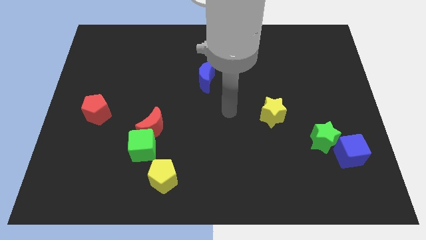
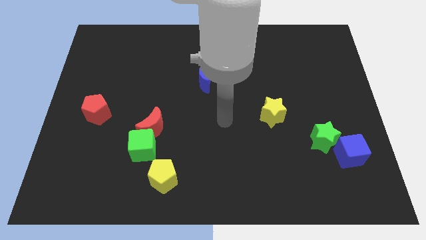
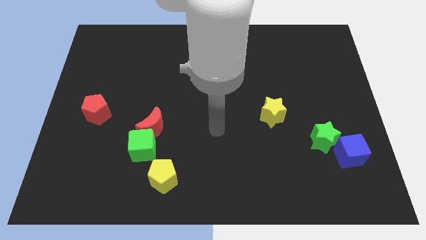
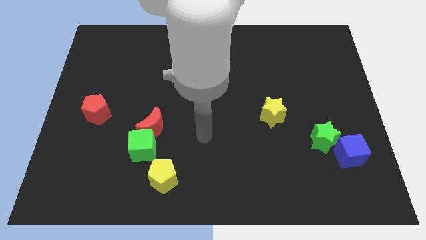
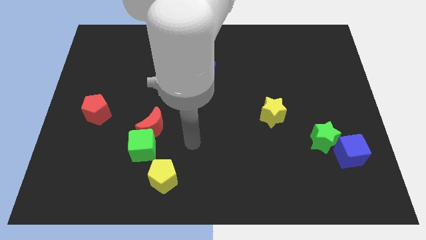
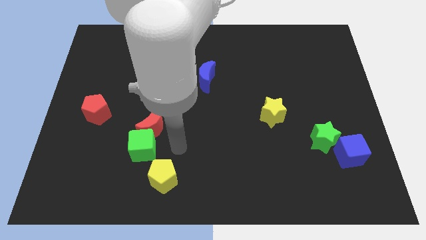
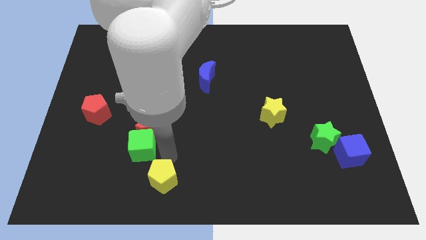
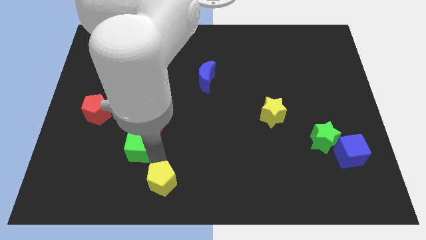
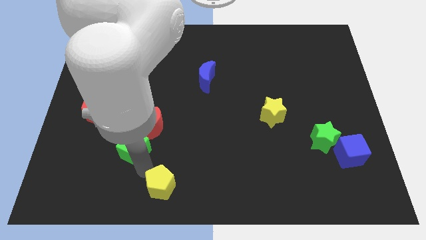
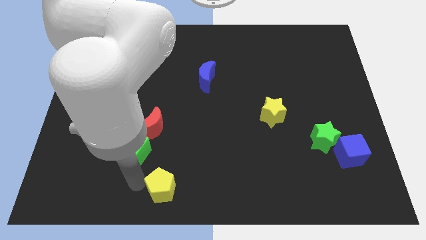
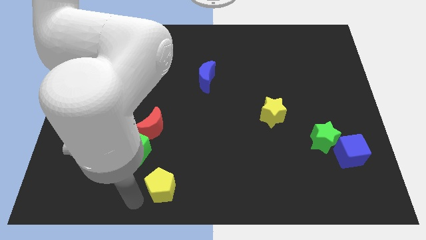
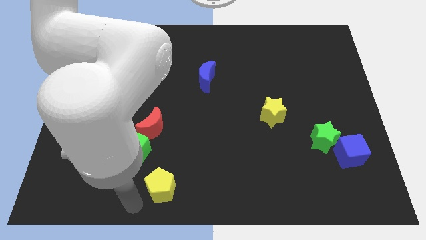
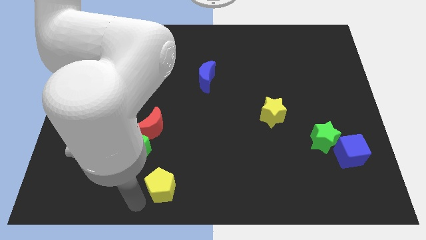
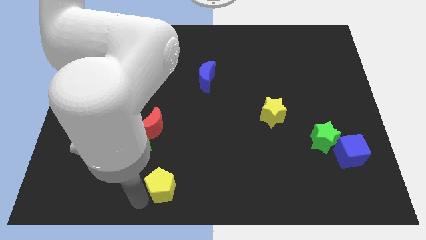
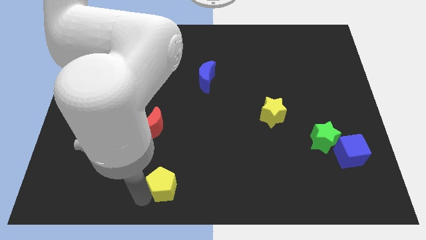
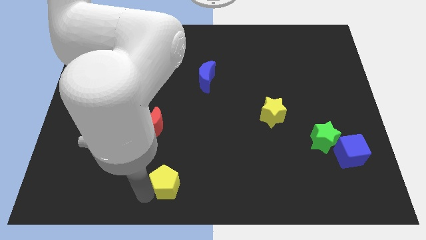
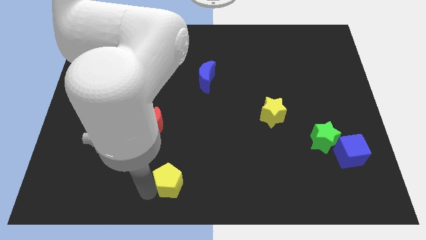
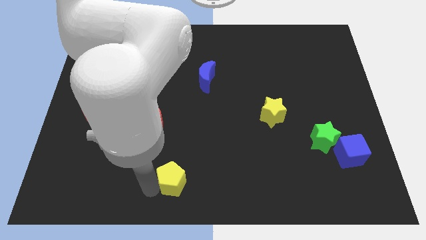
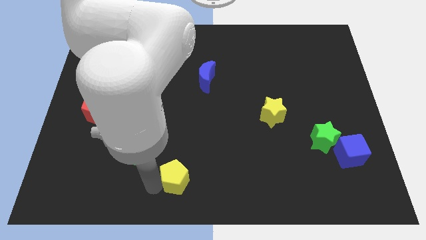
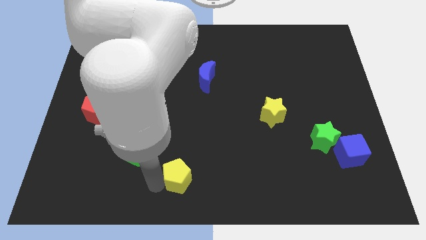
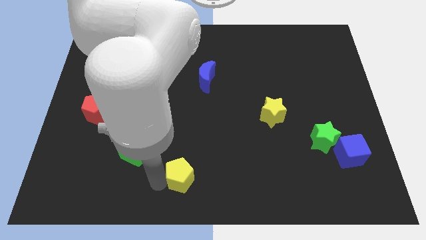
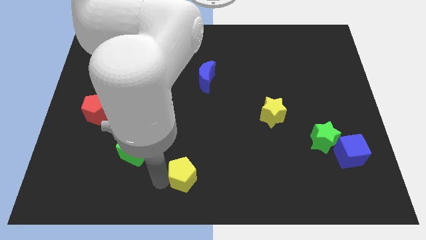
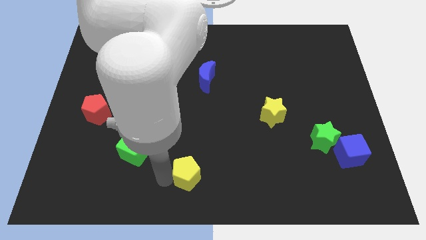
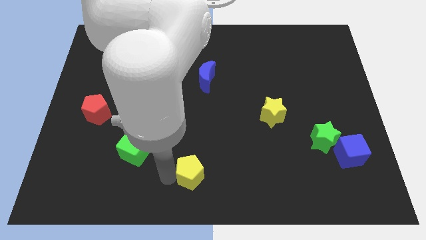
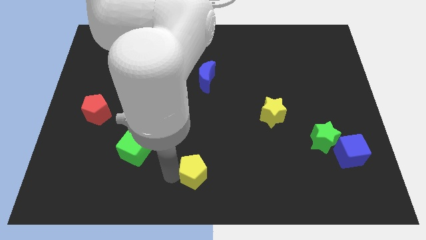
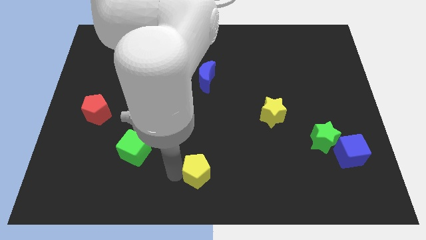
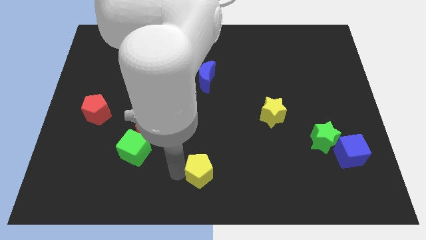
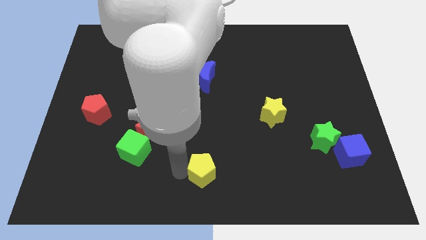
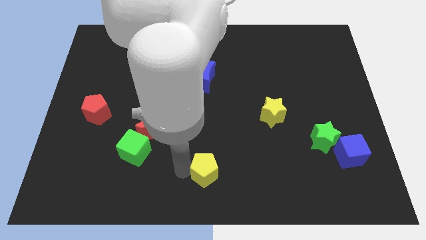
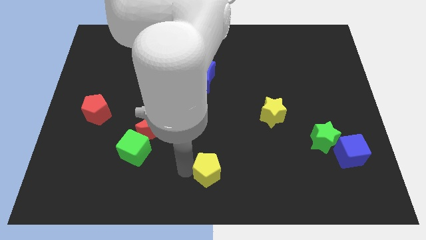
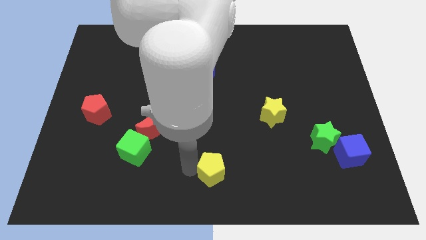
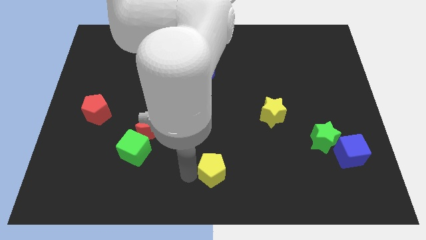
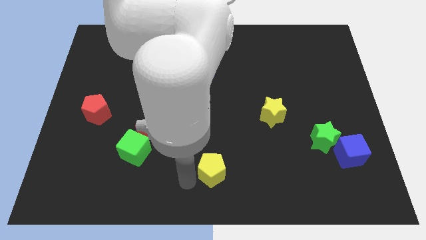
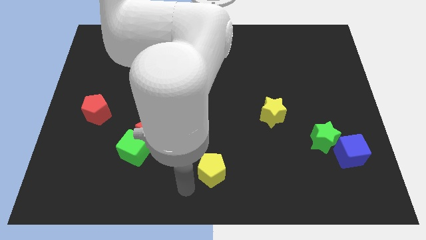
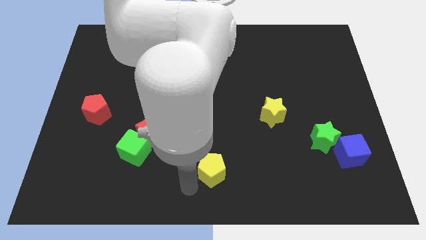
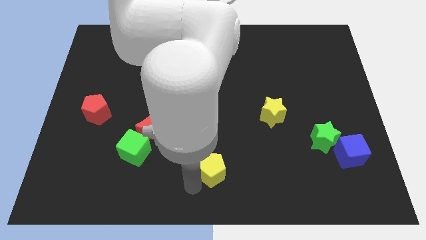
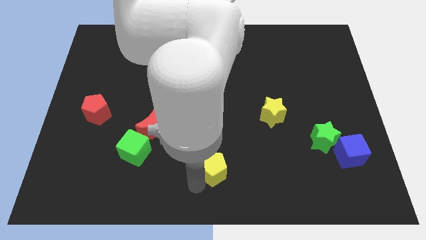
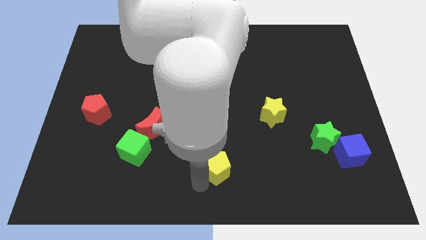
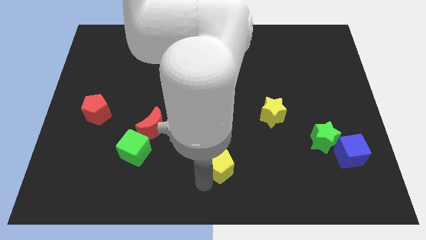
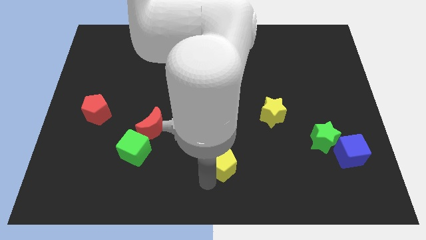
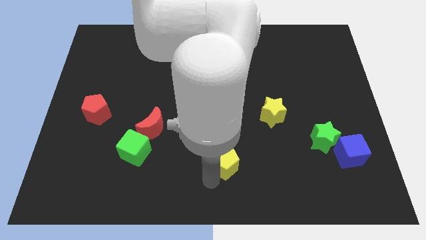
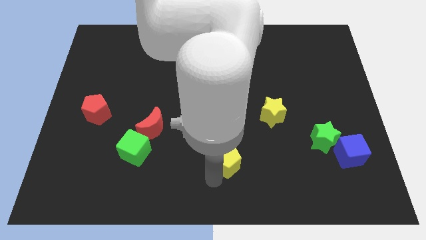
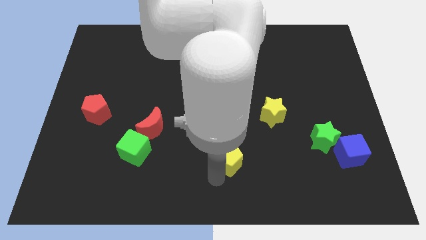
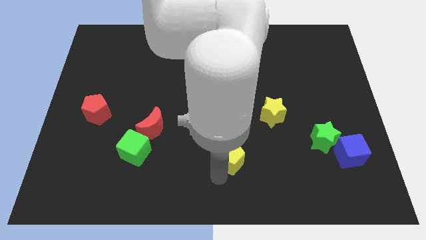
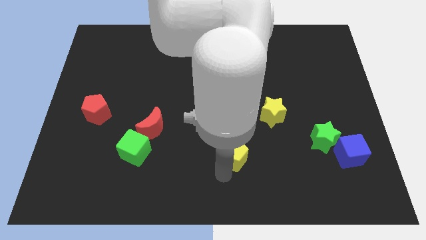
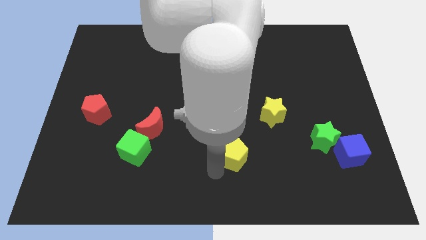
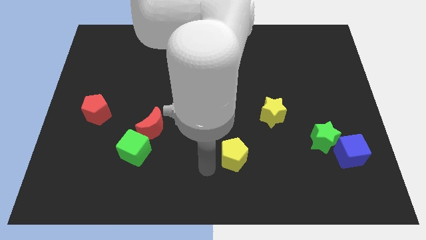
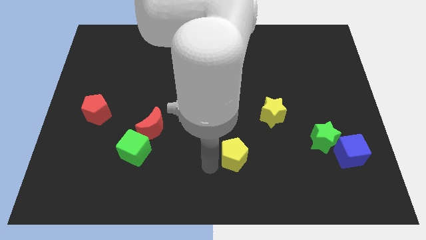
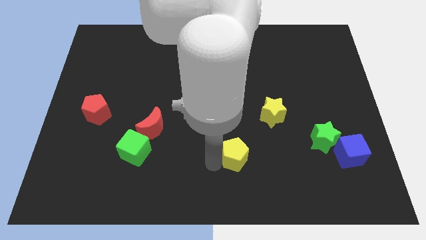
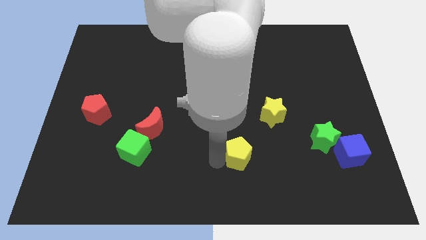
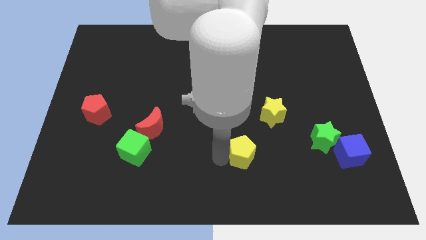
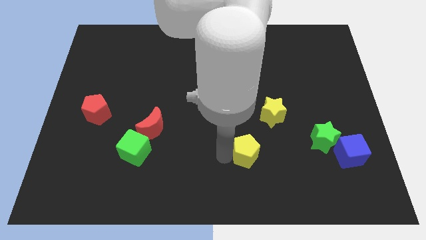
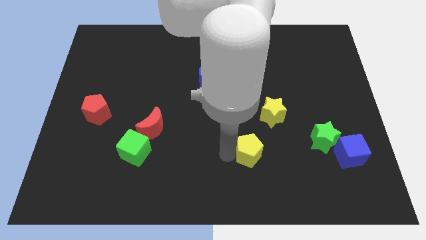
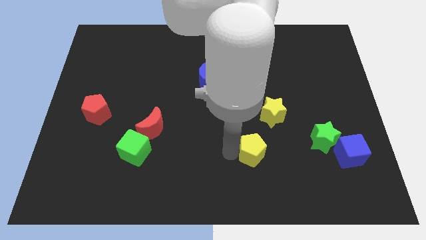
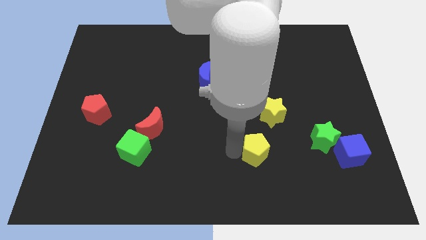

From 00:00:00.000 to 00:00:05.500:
slide the yellow pentagon just left of the green star

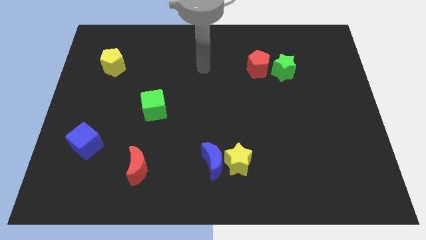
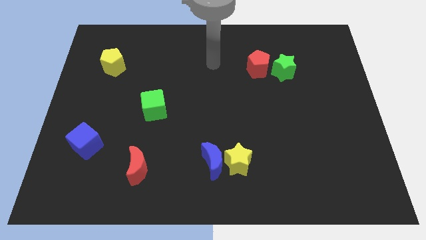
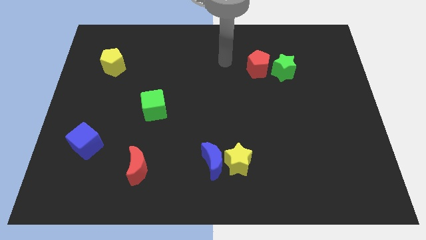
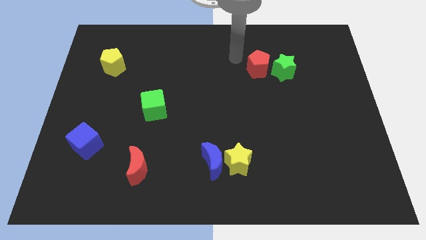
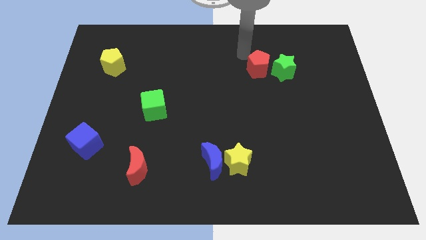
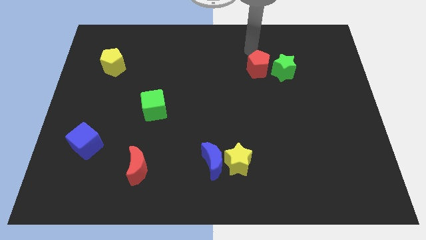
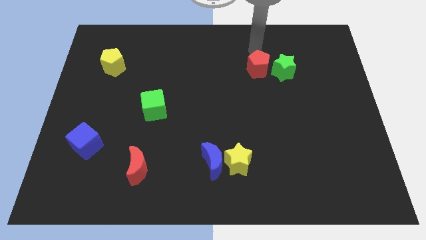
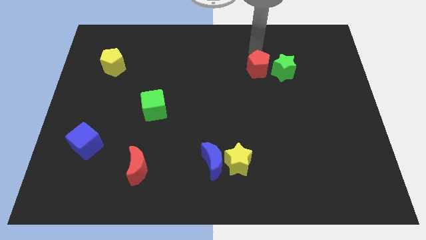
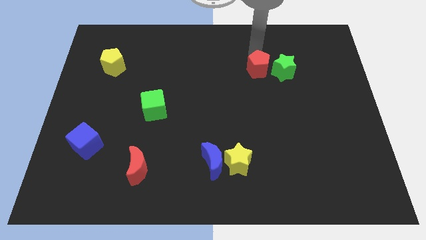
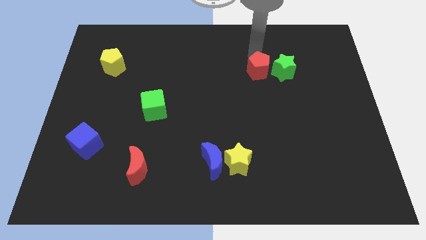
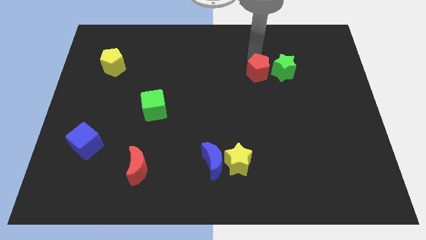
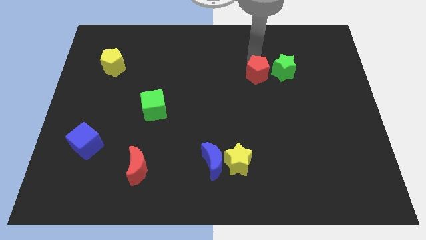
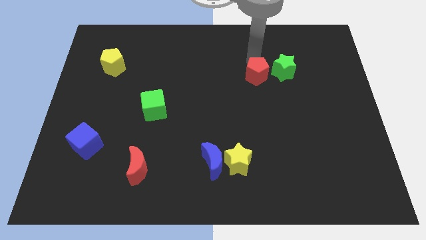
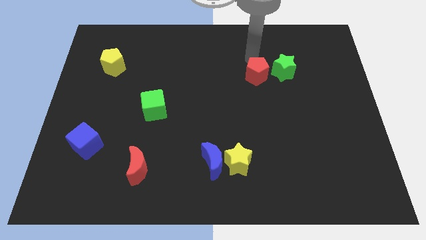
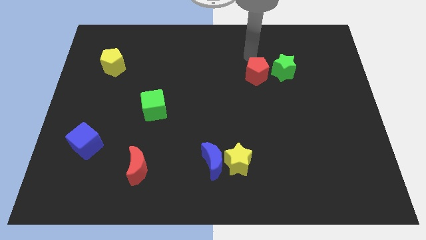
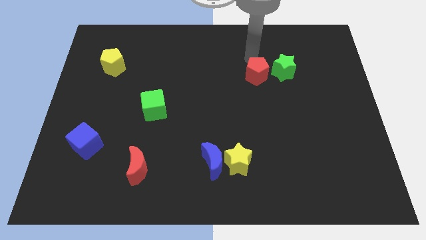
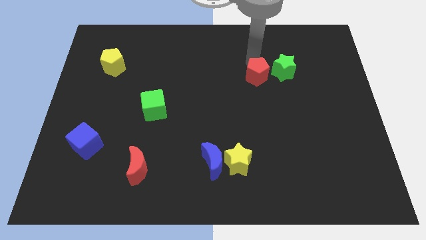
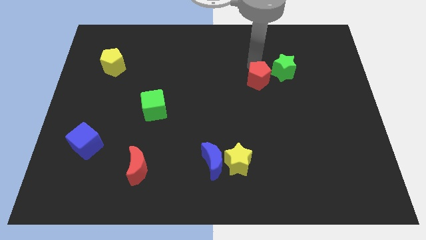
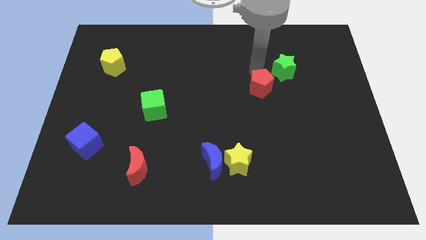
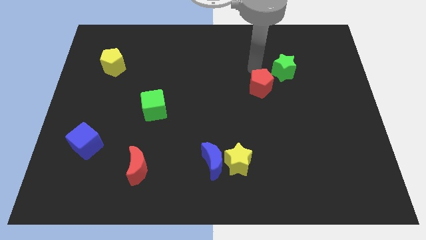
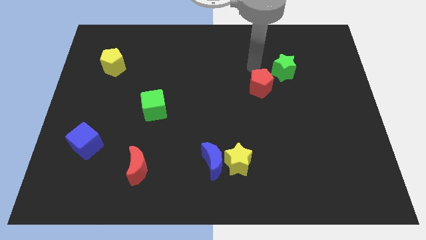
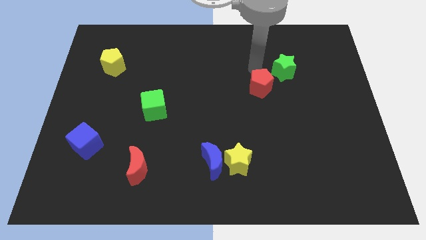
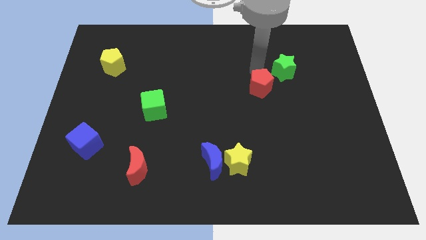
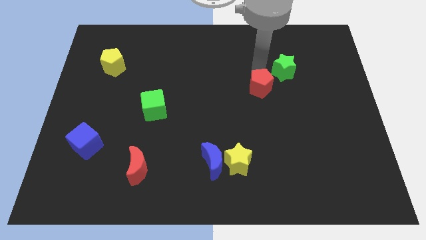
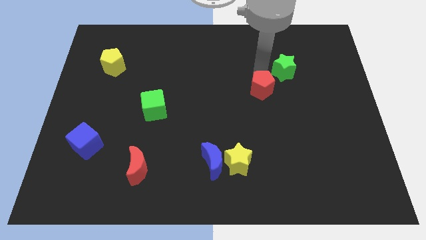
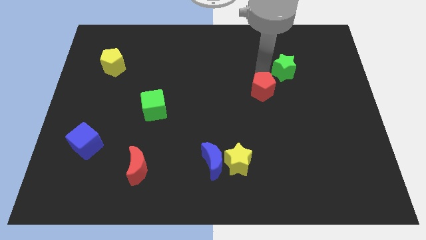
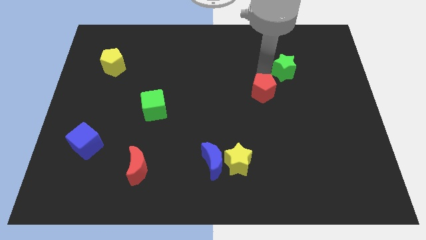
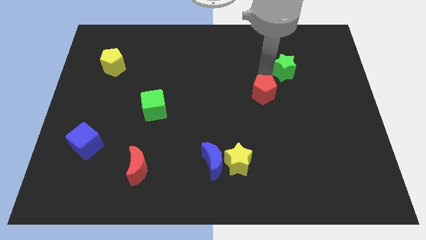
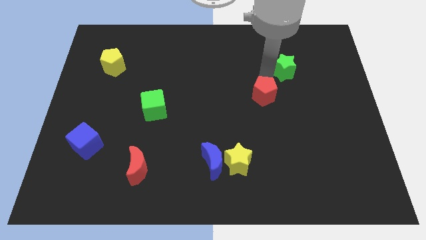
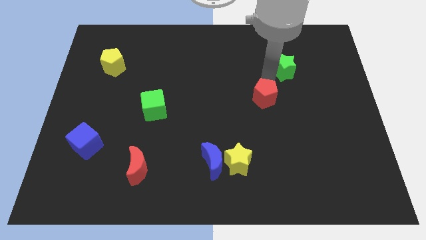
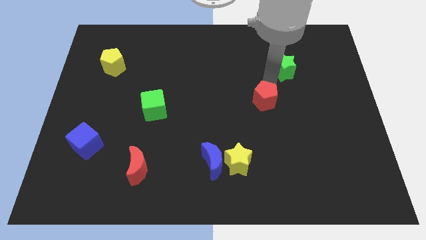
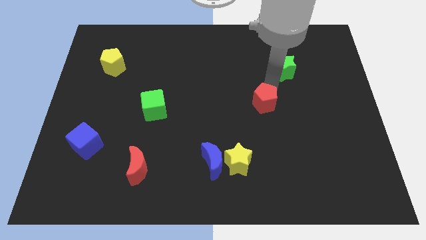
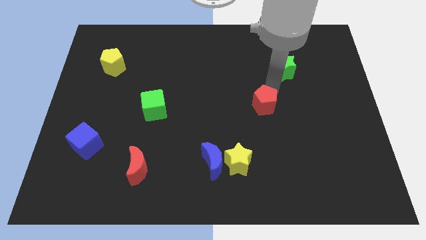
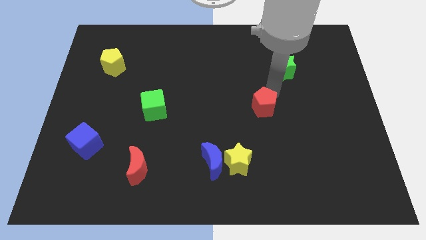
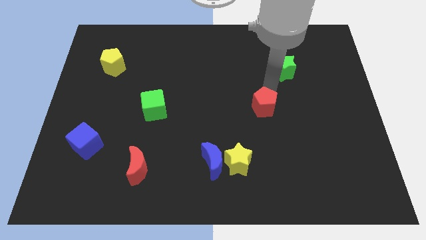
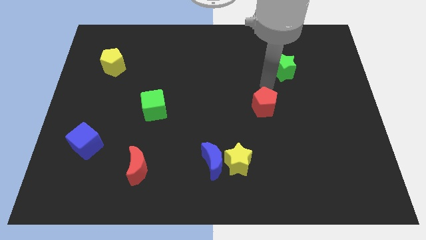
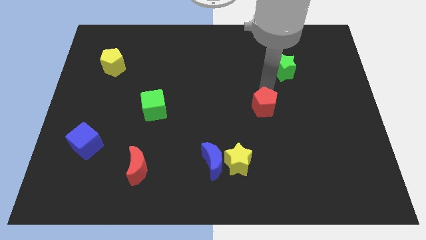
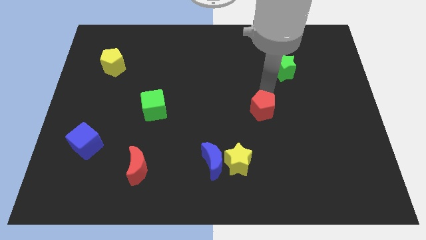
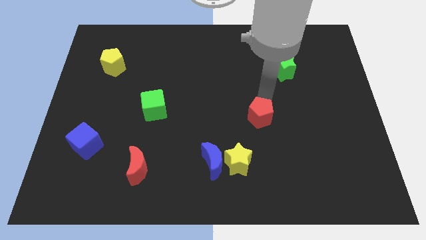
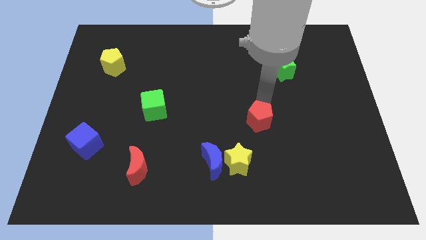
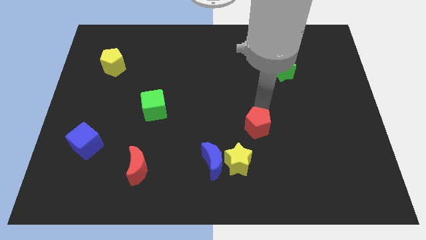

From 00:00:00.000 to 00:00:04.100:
slide the red pentagon to the top right side of the yellow star
